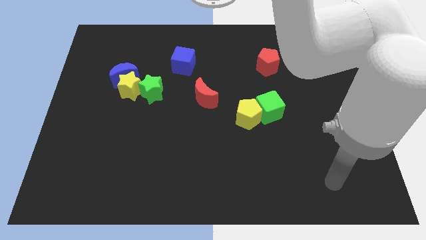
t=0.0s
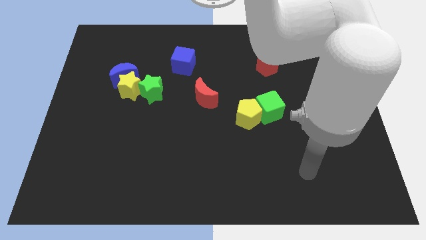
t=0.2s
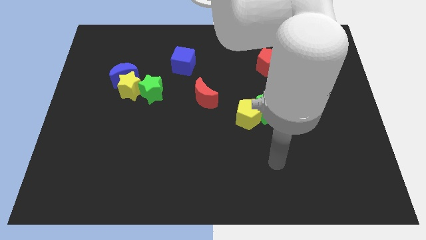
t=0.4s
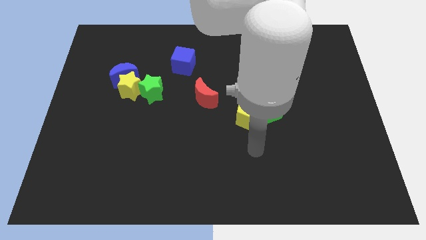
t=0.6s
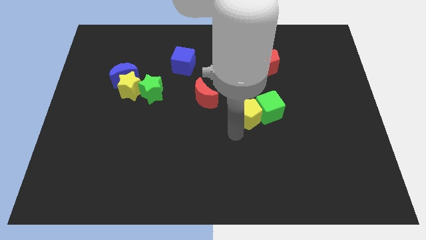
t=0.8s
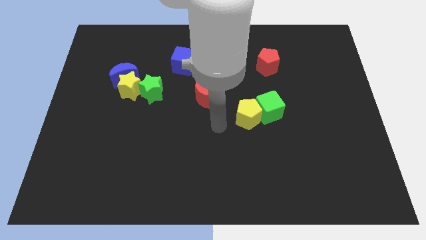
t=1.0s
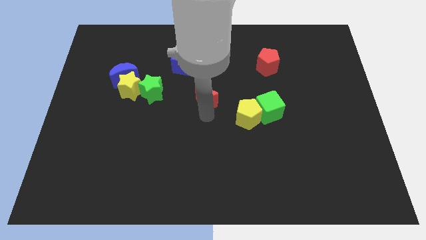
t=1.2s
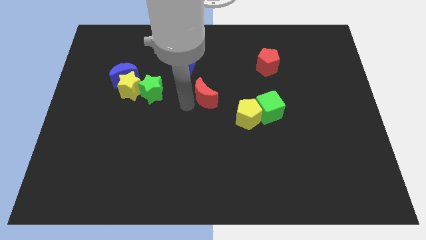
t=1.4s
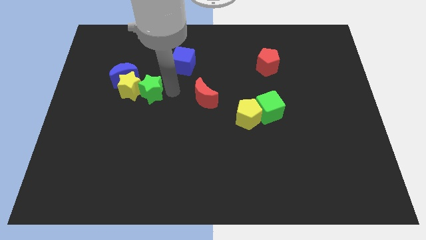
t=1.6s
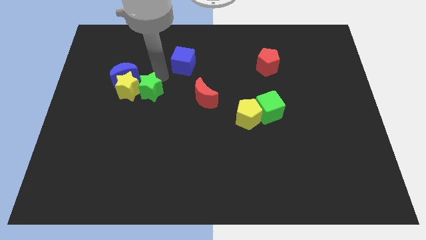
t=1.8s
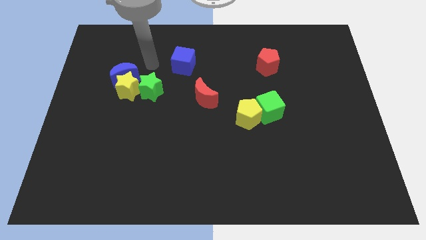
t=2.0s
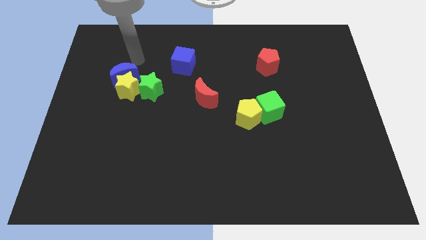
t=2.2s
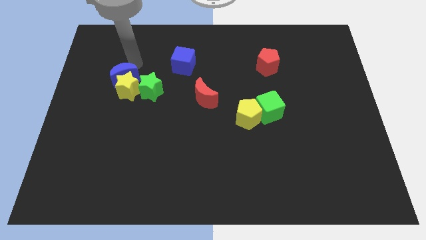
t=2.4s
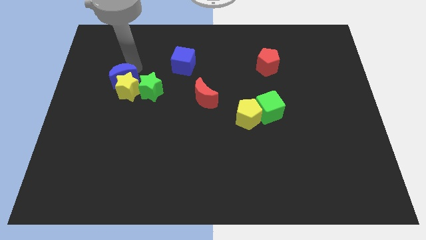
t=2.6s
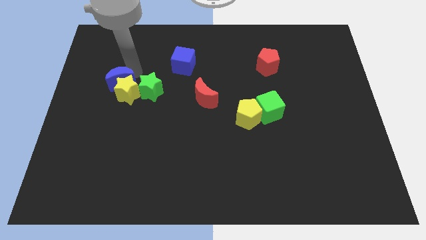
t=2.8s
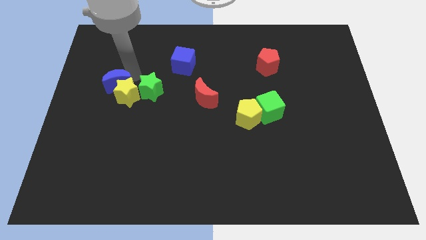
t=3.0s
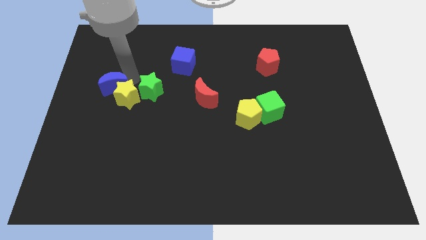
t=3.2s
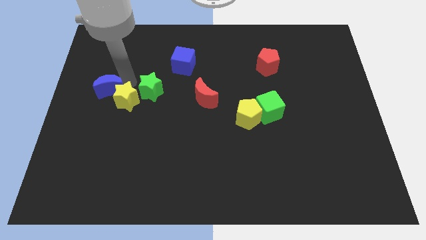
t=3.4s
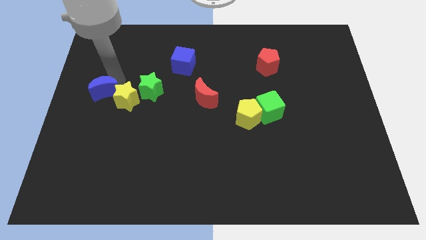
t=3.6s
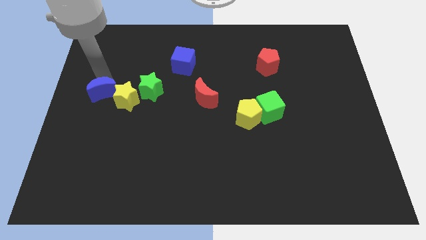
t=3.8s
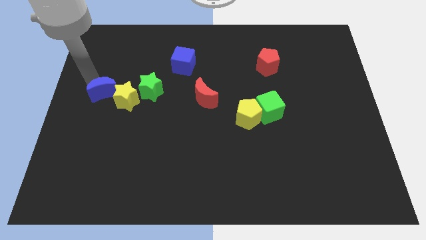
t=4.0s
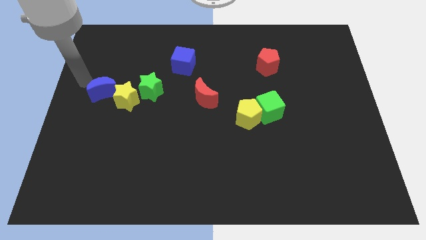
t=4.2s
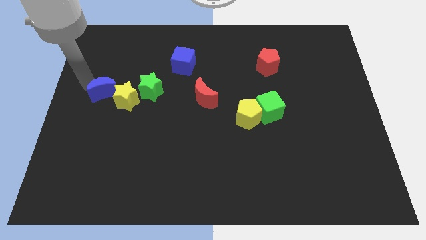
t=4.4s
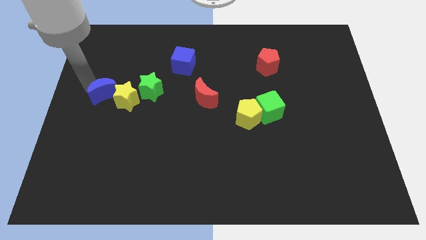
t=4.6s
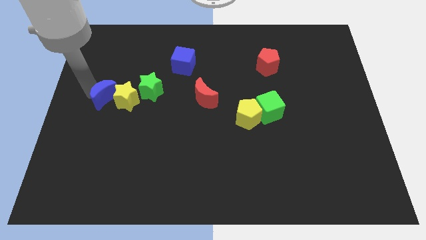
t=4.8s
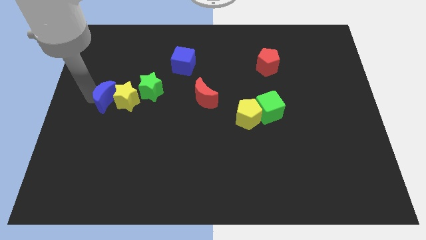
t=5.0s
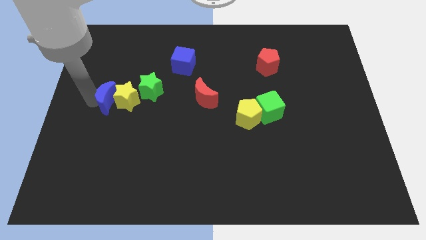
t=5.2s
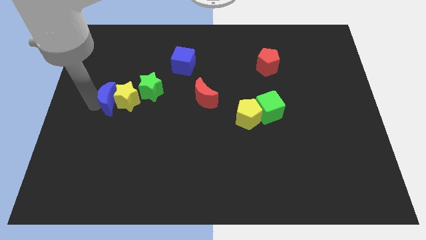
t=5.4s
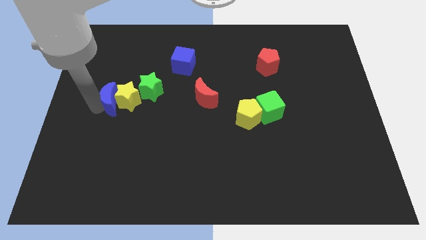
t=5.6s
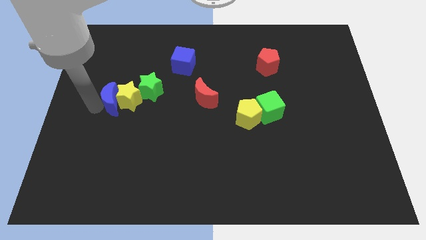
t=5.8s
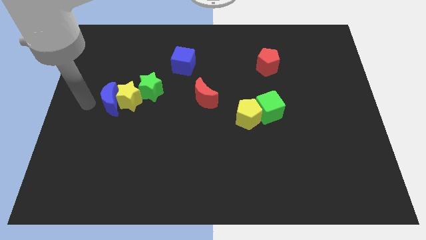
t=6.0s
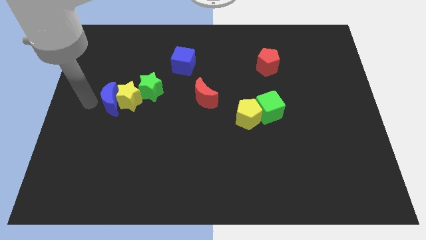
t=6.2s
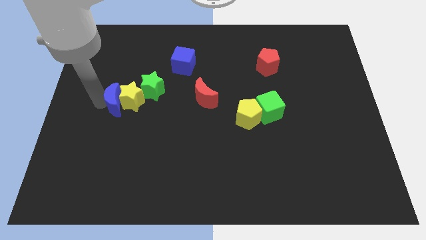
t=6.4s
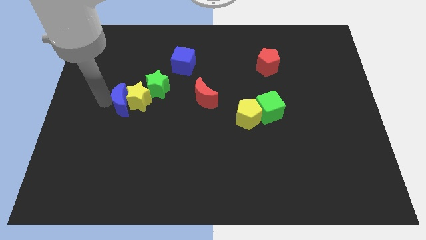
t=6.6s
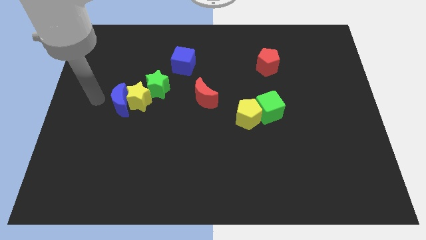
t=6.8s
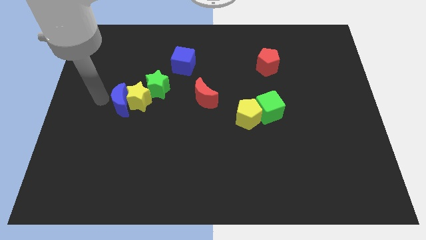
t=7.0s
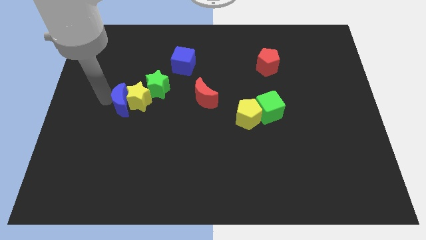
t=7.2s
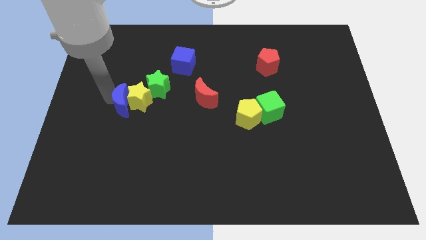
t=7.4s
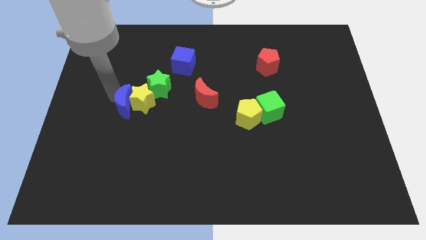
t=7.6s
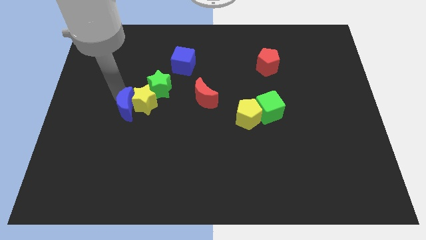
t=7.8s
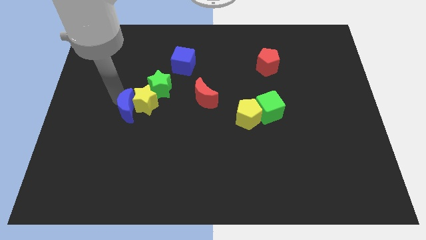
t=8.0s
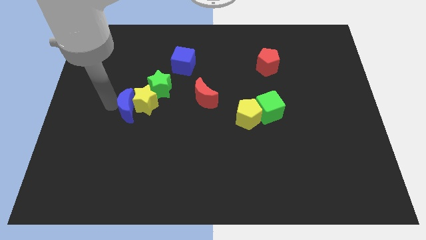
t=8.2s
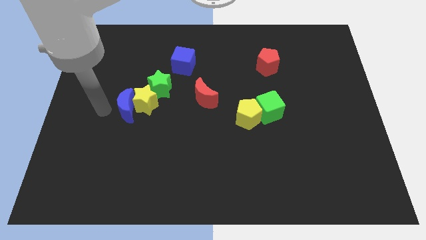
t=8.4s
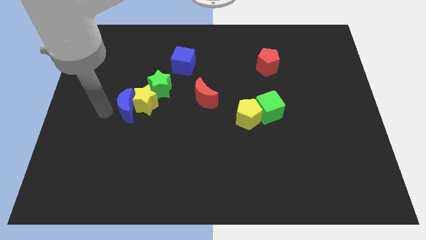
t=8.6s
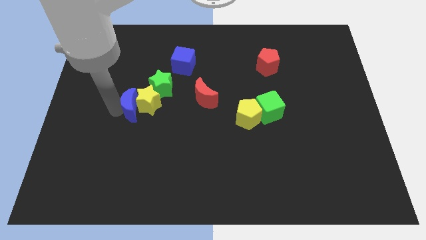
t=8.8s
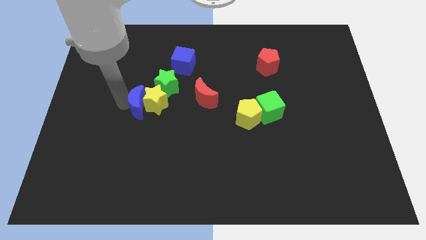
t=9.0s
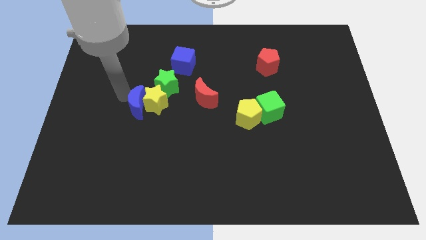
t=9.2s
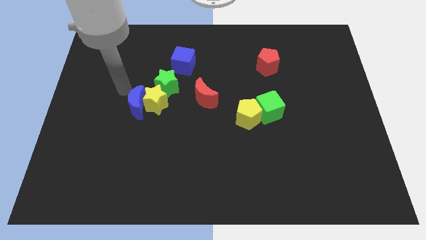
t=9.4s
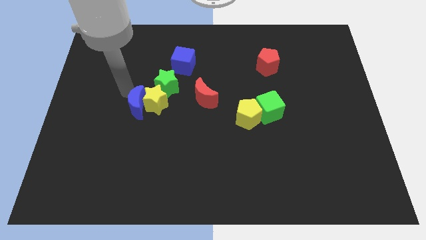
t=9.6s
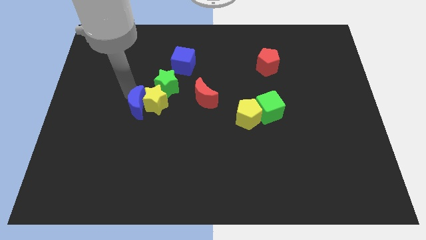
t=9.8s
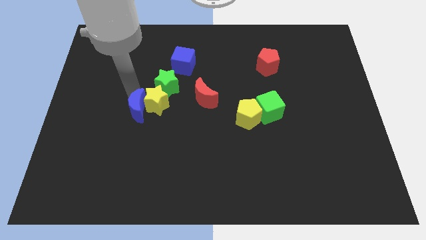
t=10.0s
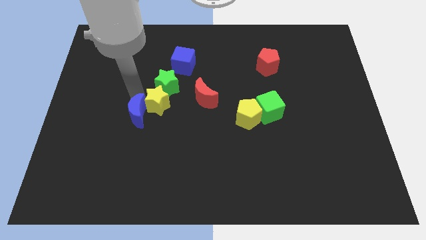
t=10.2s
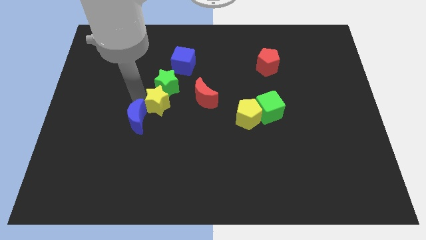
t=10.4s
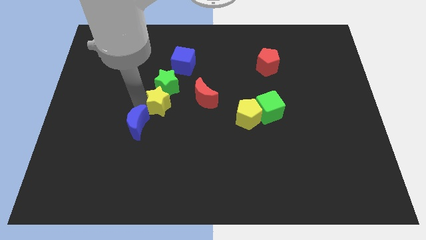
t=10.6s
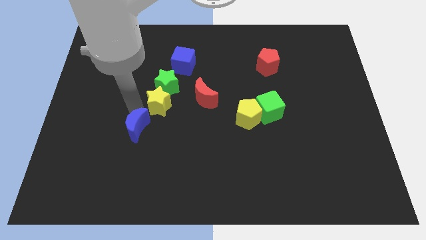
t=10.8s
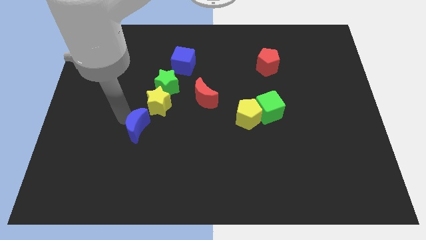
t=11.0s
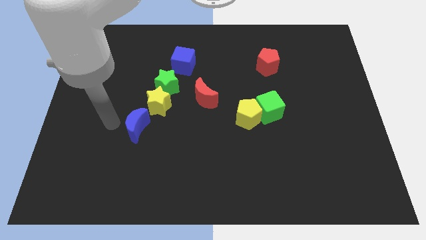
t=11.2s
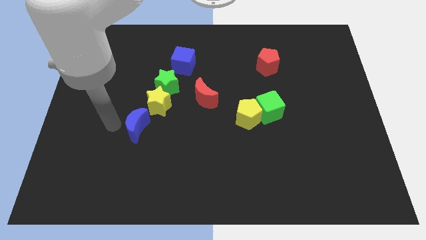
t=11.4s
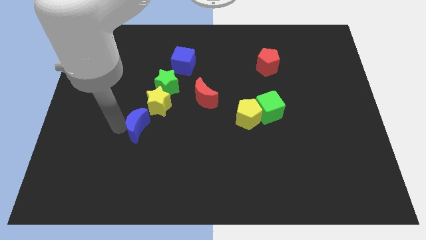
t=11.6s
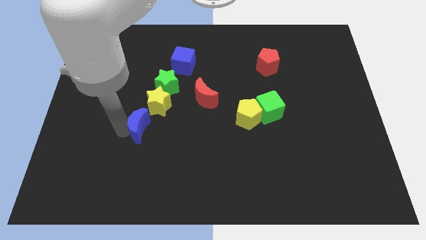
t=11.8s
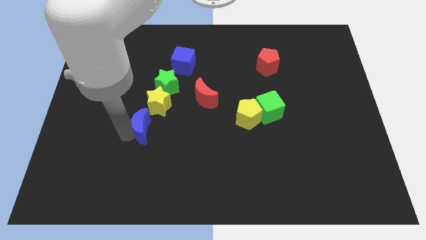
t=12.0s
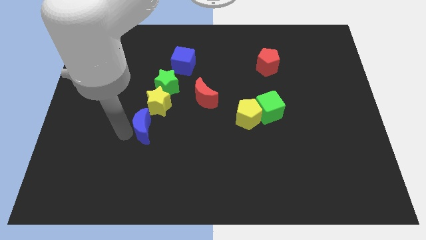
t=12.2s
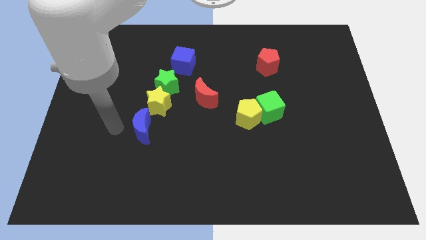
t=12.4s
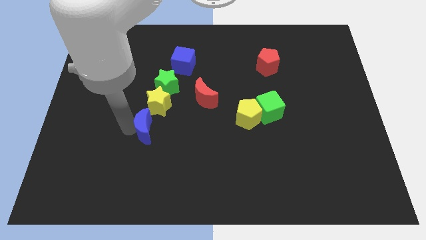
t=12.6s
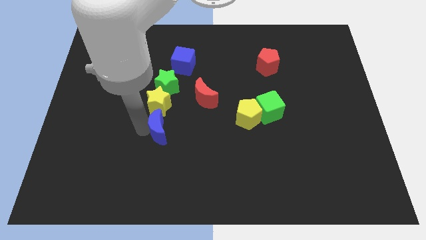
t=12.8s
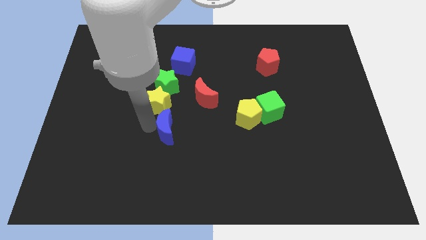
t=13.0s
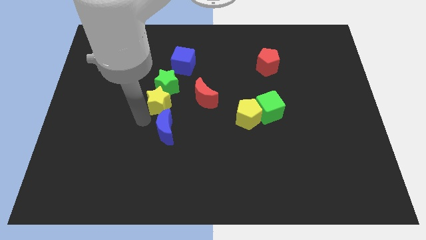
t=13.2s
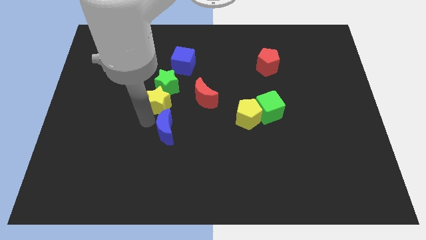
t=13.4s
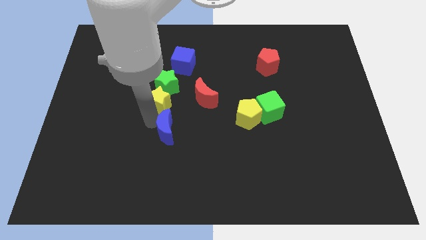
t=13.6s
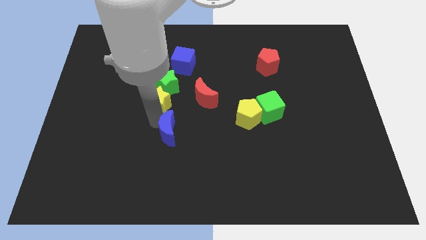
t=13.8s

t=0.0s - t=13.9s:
push the blue moon downwards and right

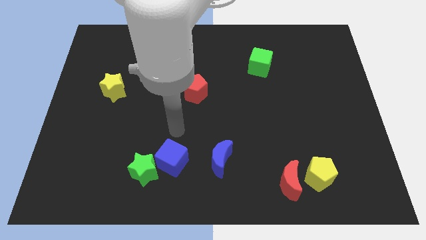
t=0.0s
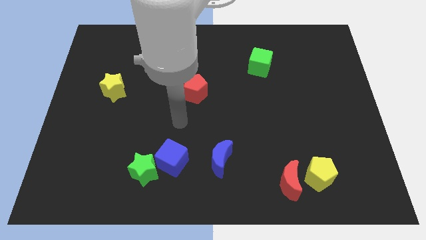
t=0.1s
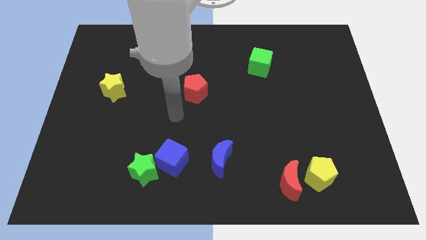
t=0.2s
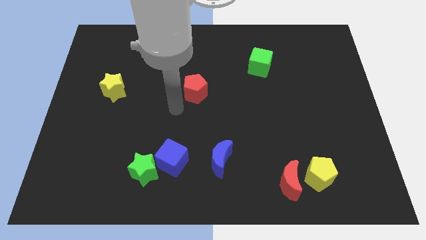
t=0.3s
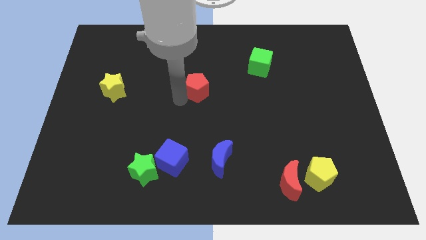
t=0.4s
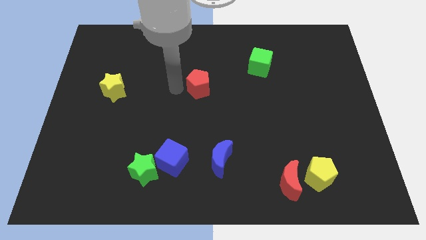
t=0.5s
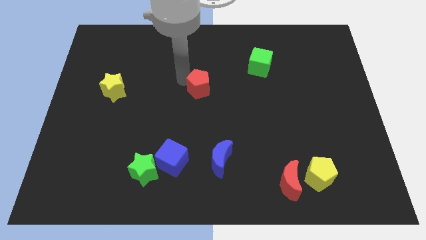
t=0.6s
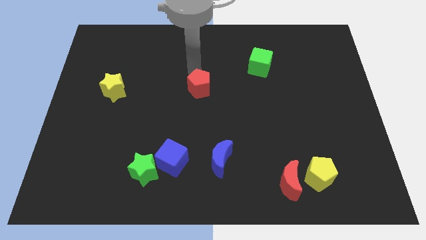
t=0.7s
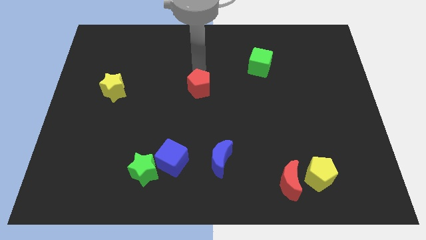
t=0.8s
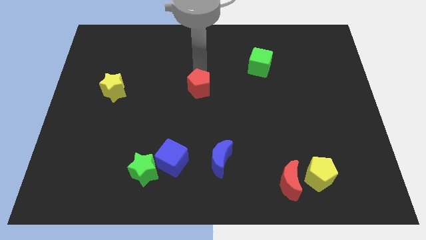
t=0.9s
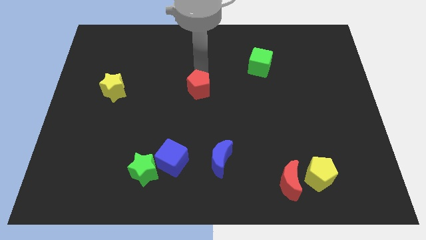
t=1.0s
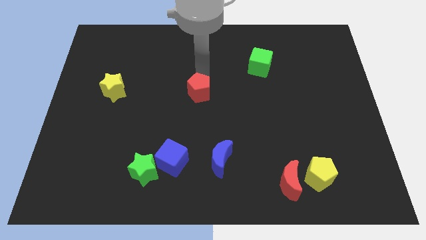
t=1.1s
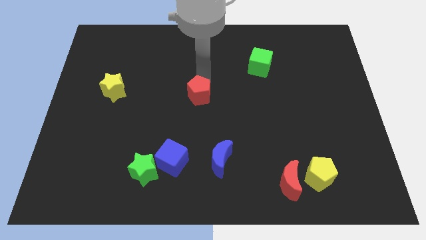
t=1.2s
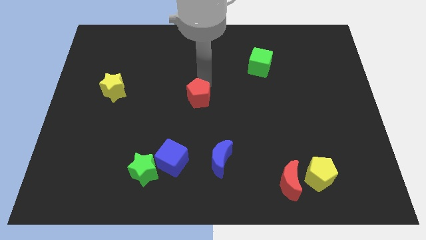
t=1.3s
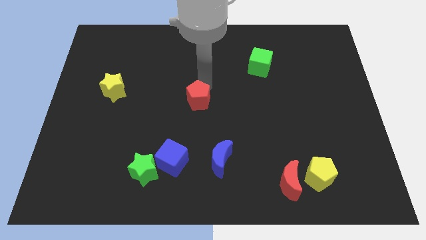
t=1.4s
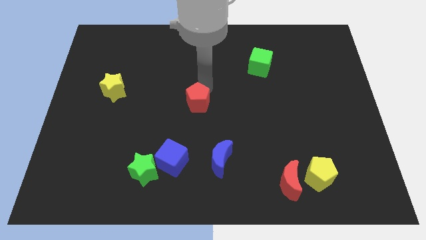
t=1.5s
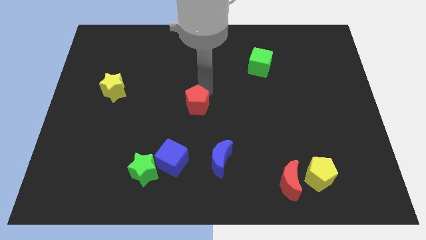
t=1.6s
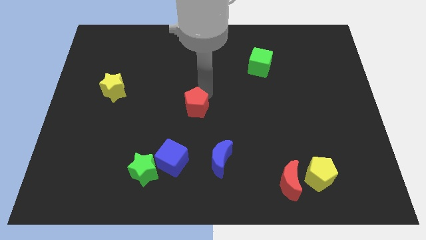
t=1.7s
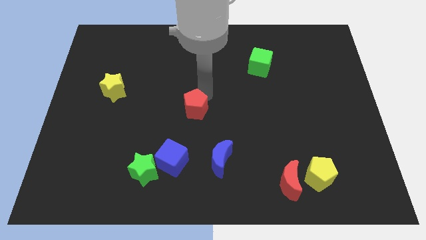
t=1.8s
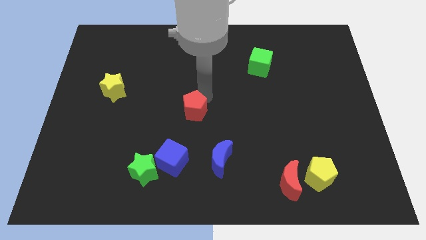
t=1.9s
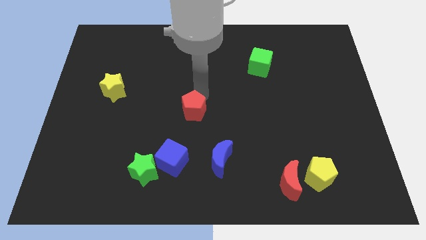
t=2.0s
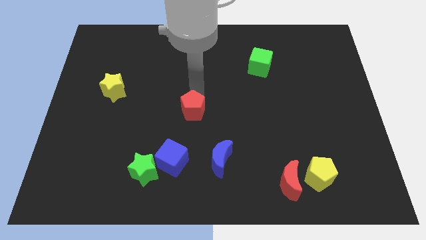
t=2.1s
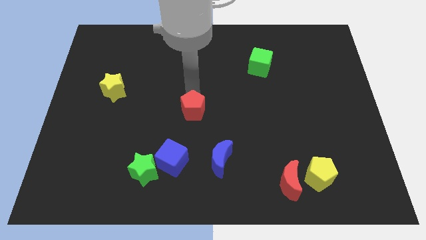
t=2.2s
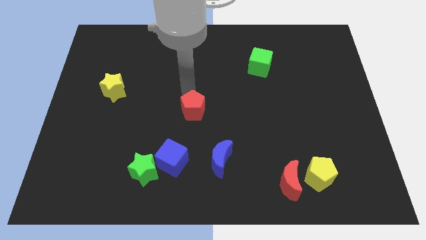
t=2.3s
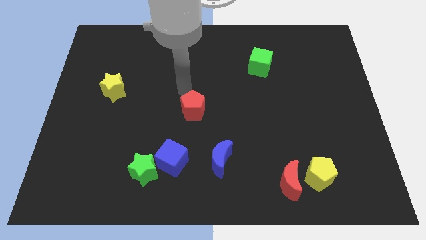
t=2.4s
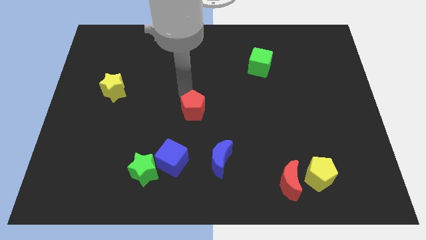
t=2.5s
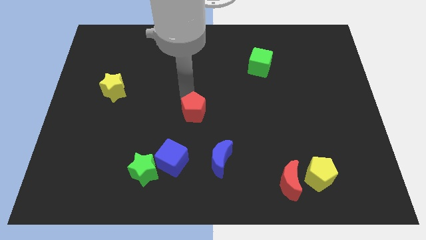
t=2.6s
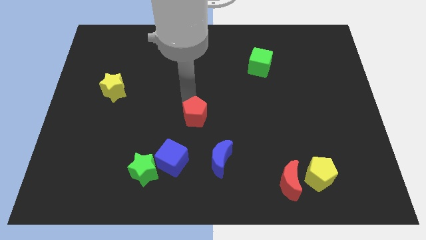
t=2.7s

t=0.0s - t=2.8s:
slightly push the red pentagon downwards
